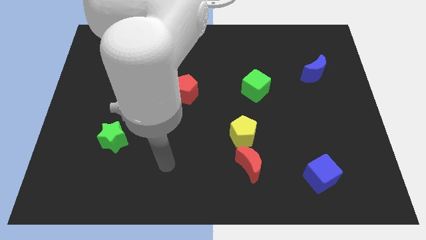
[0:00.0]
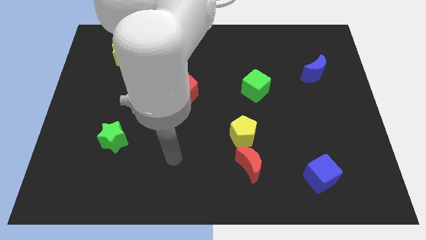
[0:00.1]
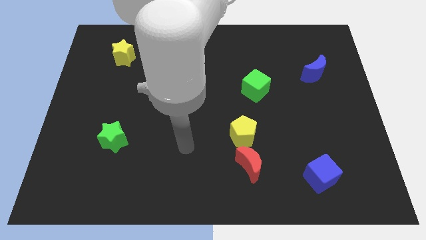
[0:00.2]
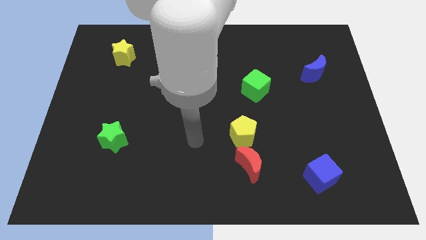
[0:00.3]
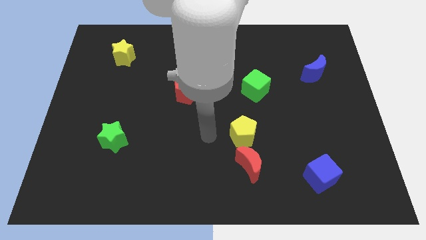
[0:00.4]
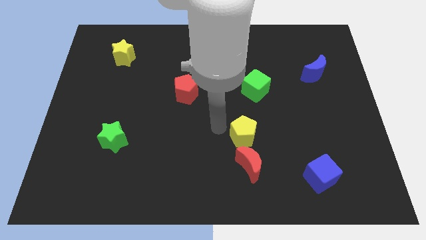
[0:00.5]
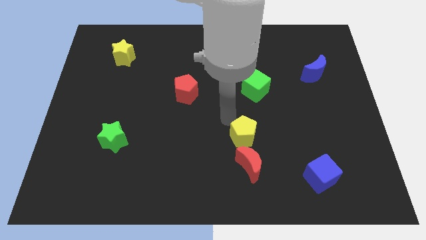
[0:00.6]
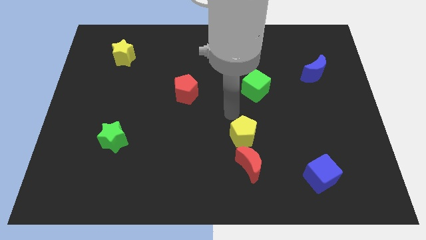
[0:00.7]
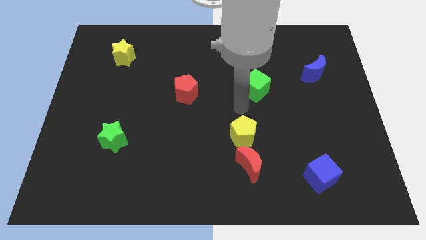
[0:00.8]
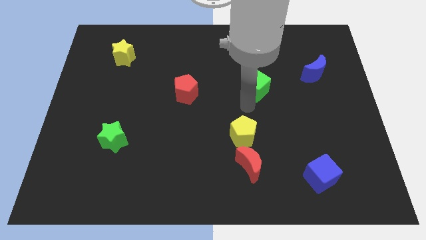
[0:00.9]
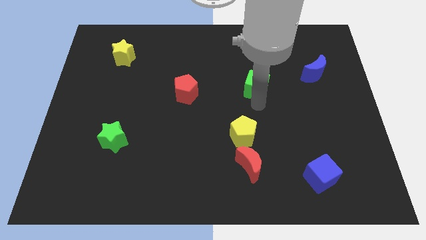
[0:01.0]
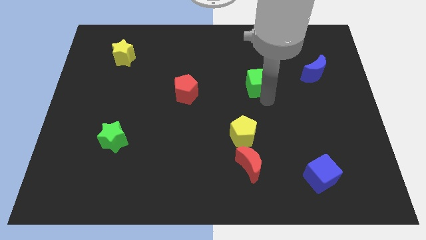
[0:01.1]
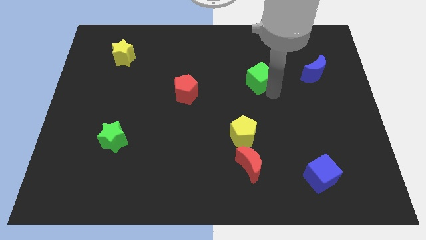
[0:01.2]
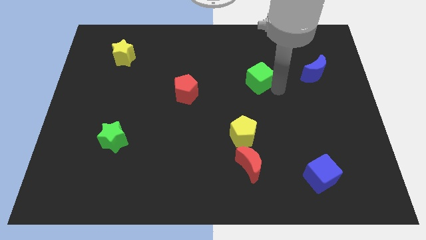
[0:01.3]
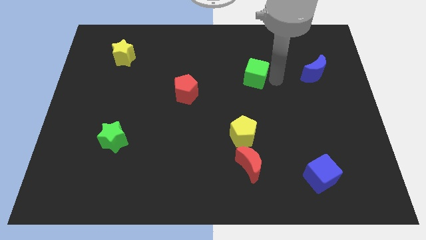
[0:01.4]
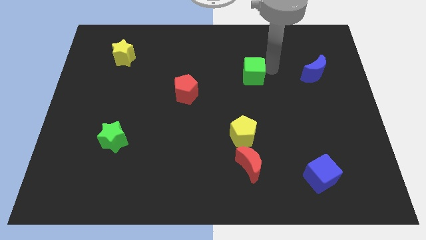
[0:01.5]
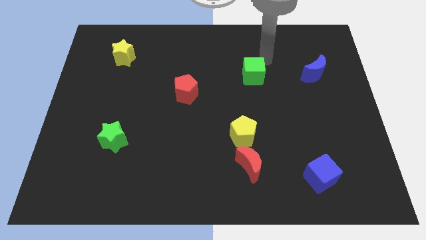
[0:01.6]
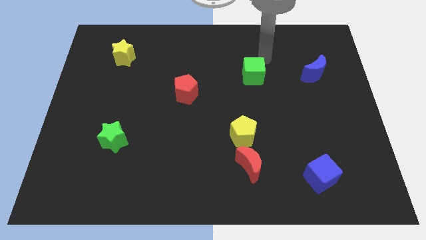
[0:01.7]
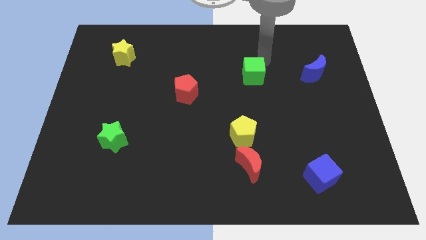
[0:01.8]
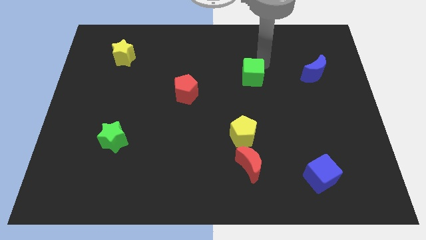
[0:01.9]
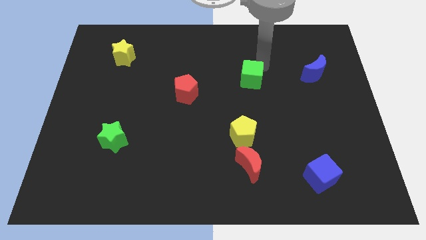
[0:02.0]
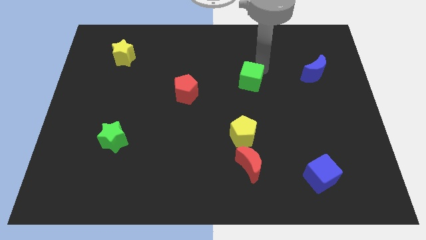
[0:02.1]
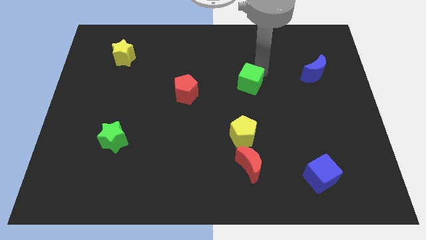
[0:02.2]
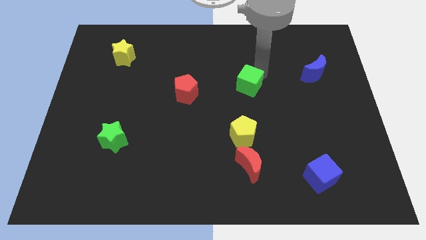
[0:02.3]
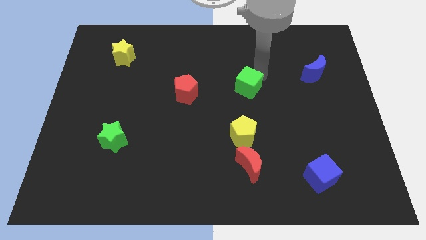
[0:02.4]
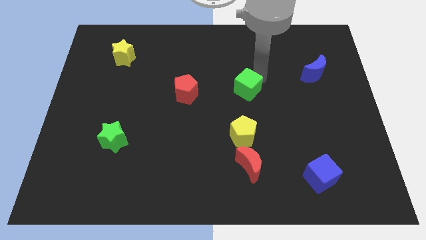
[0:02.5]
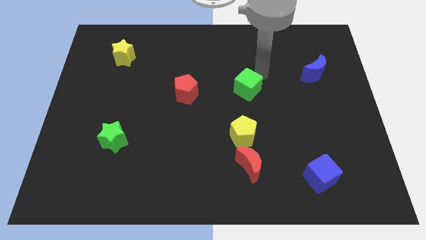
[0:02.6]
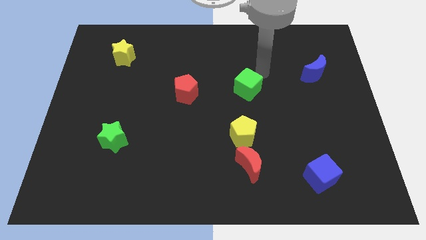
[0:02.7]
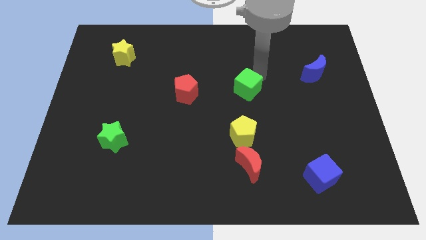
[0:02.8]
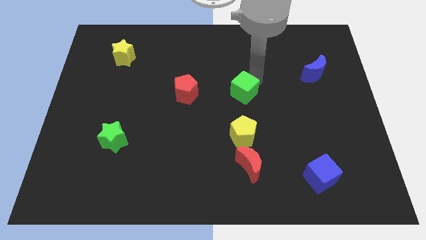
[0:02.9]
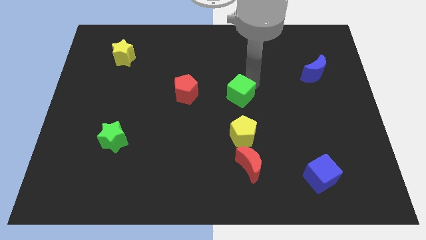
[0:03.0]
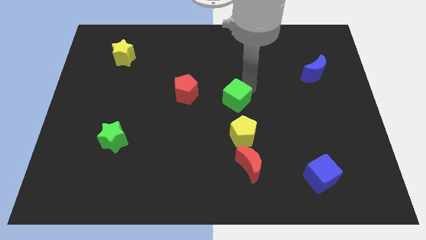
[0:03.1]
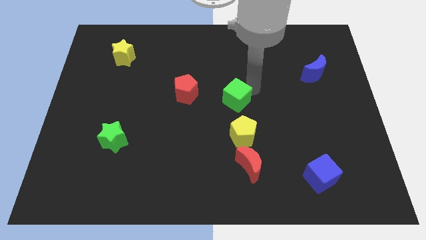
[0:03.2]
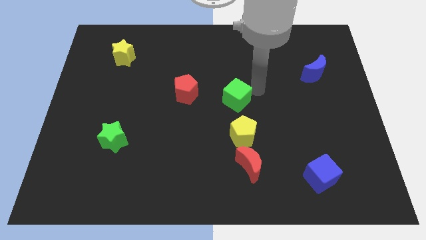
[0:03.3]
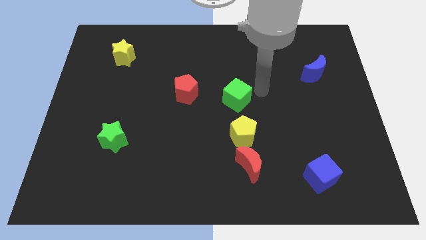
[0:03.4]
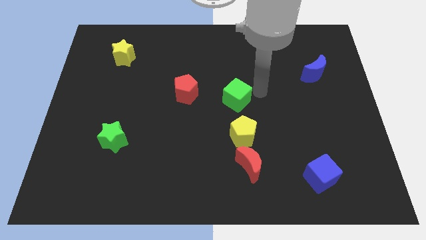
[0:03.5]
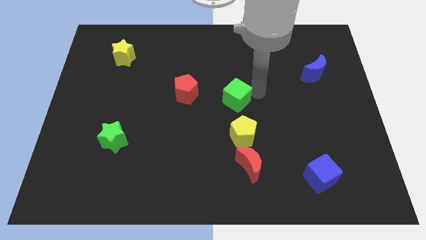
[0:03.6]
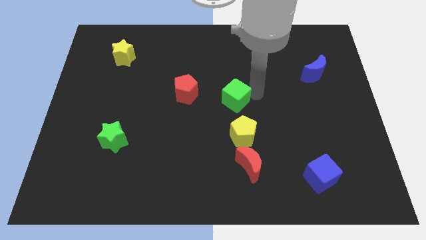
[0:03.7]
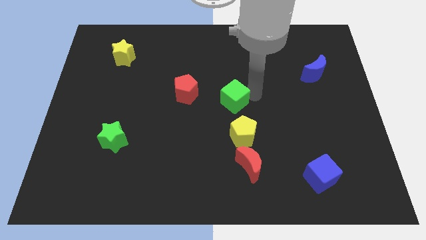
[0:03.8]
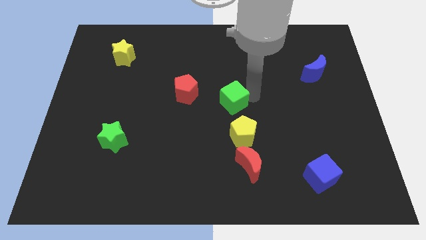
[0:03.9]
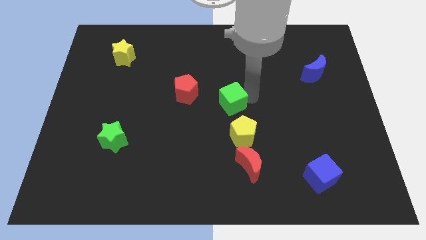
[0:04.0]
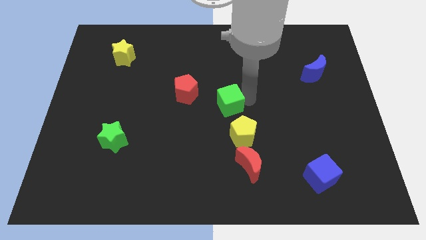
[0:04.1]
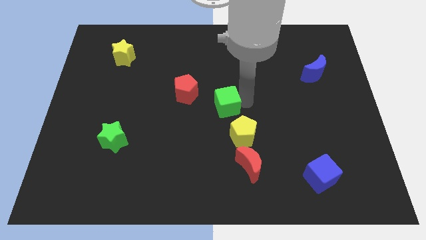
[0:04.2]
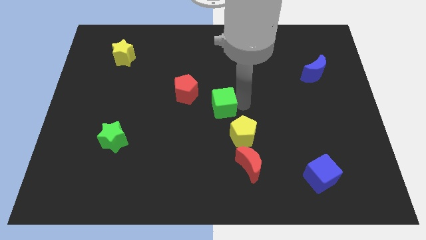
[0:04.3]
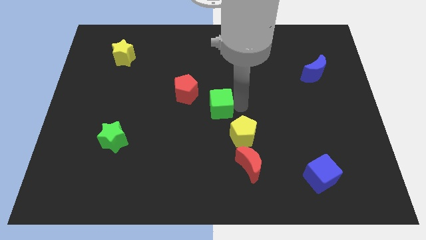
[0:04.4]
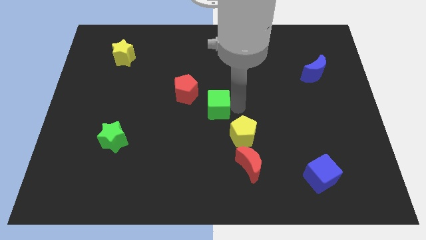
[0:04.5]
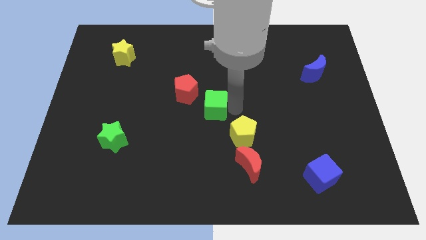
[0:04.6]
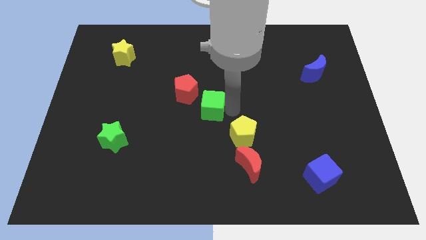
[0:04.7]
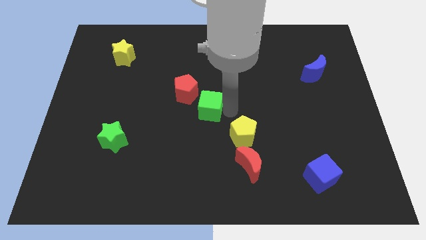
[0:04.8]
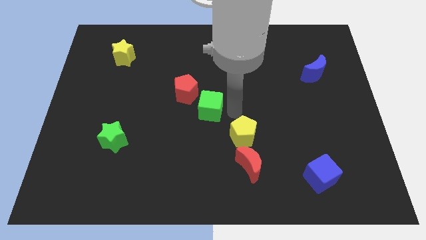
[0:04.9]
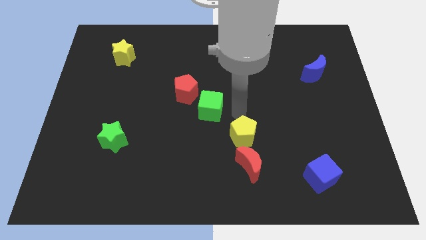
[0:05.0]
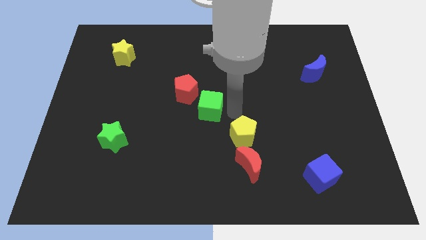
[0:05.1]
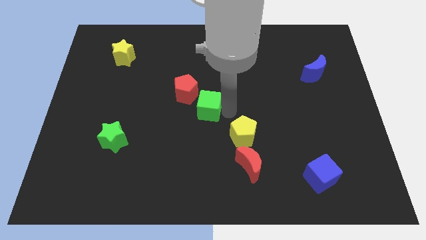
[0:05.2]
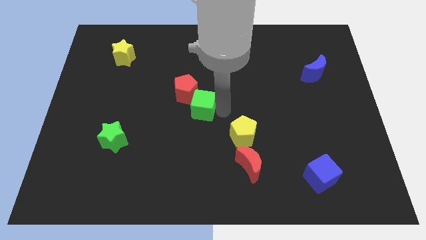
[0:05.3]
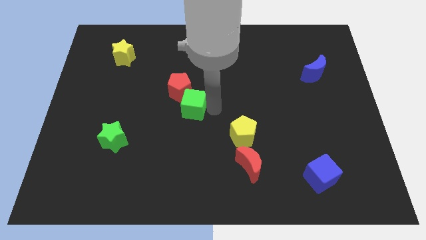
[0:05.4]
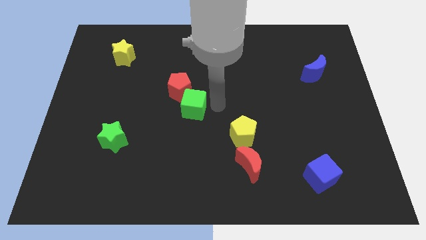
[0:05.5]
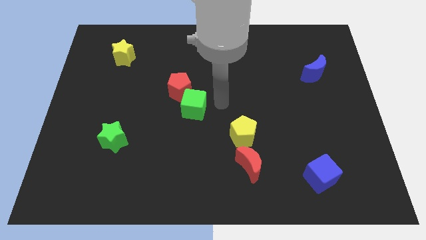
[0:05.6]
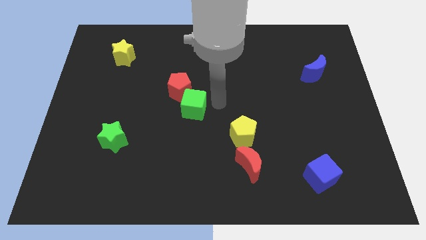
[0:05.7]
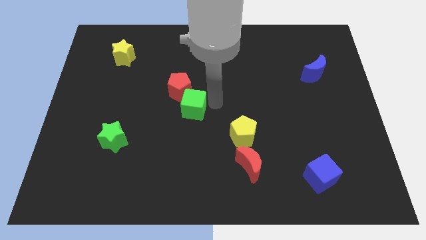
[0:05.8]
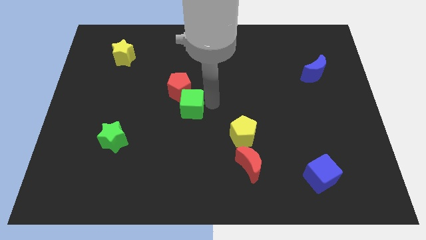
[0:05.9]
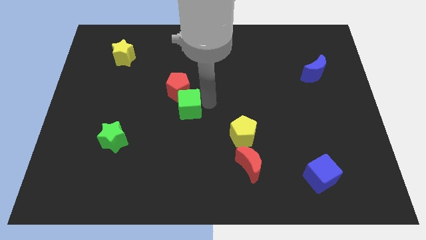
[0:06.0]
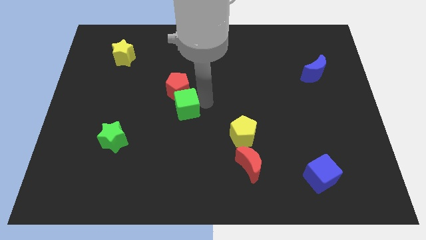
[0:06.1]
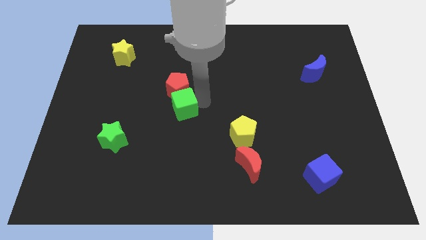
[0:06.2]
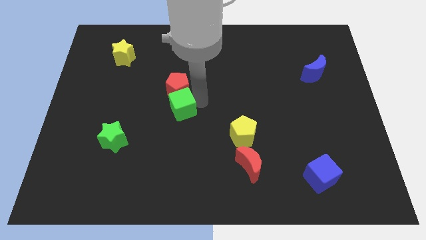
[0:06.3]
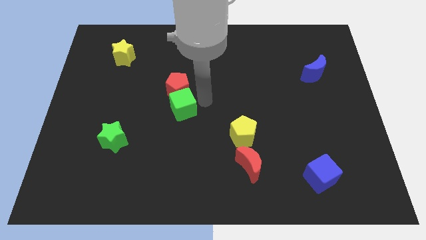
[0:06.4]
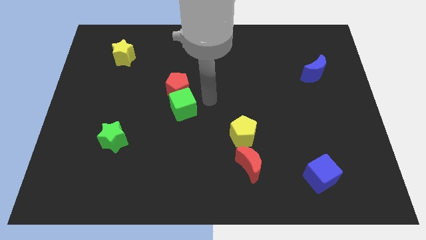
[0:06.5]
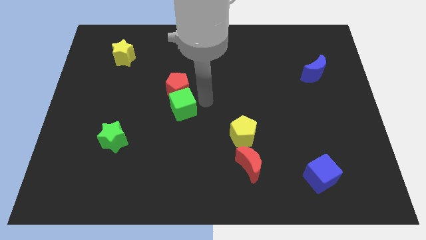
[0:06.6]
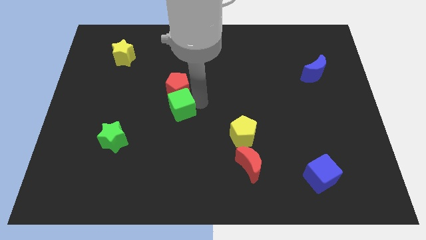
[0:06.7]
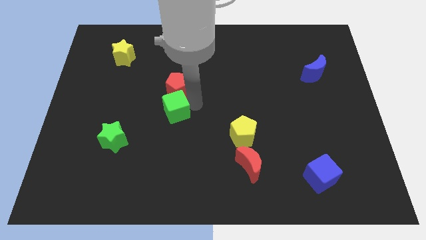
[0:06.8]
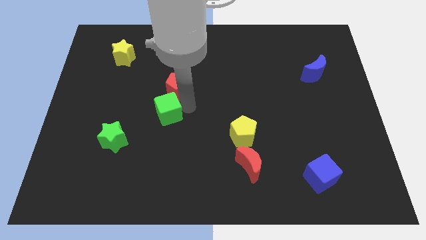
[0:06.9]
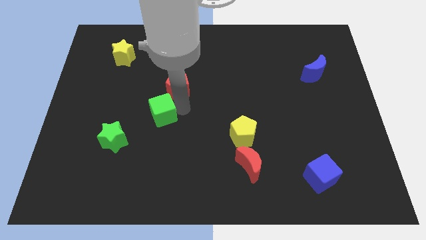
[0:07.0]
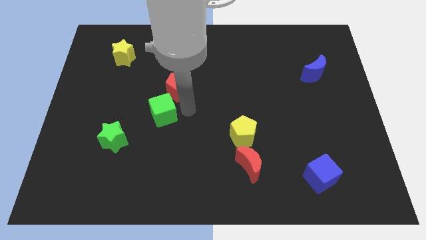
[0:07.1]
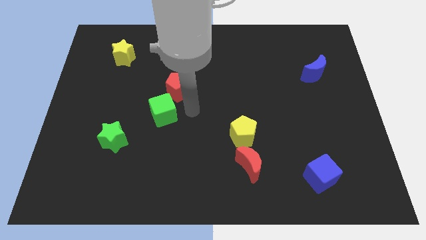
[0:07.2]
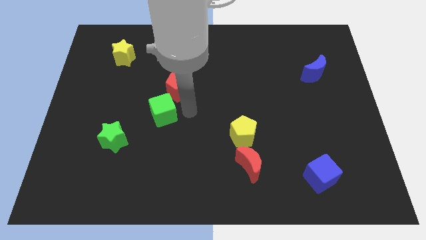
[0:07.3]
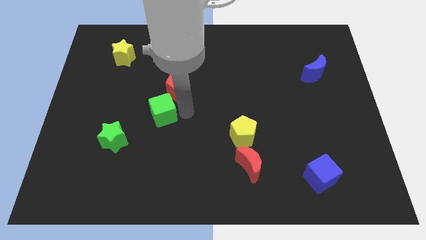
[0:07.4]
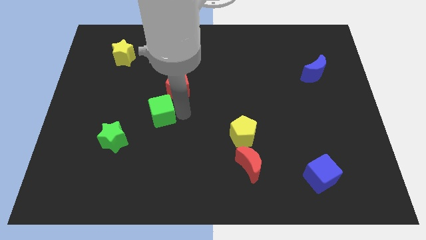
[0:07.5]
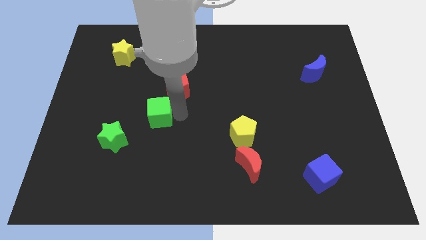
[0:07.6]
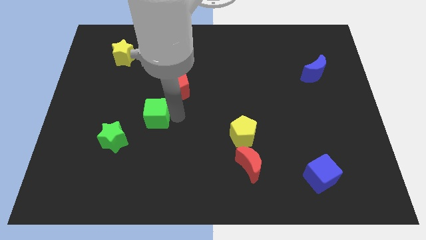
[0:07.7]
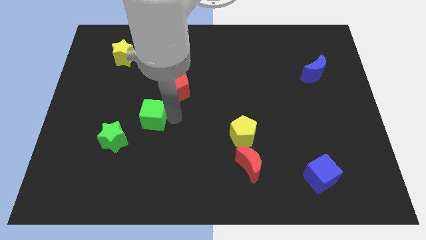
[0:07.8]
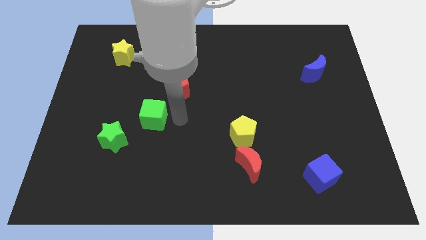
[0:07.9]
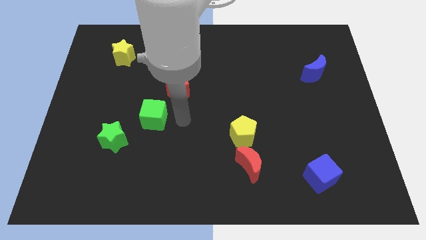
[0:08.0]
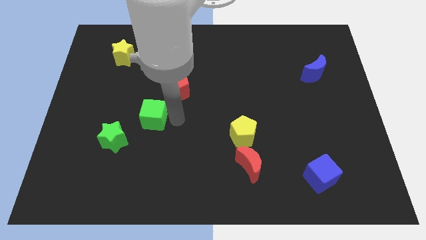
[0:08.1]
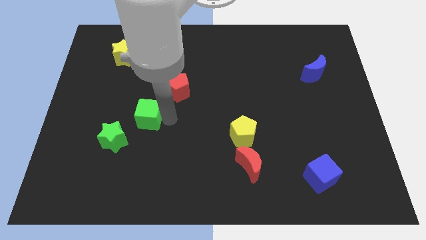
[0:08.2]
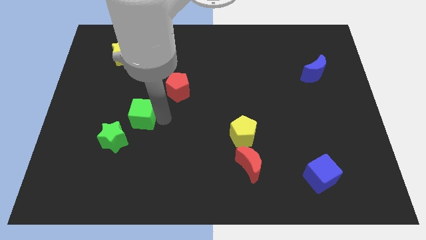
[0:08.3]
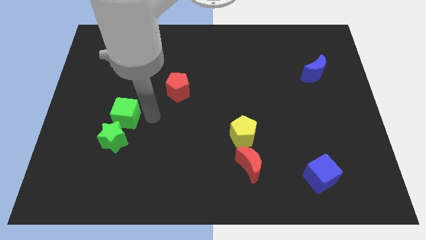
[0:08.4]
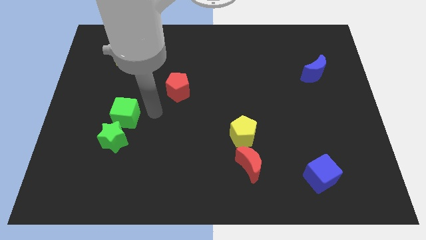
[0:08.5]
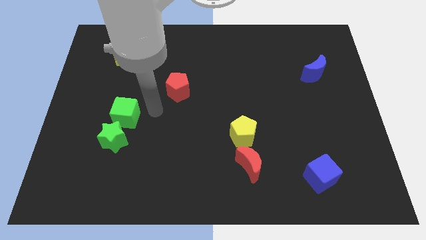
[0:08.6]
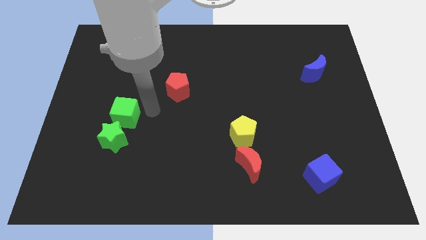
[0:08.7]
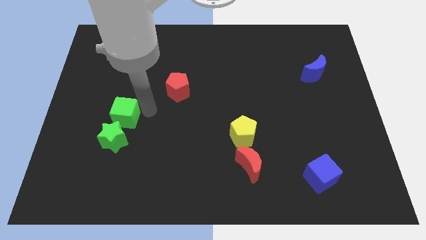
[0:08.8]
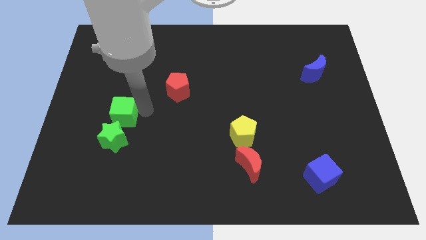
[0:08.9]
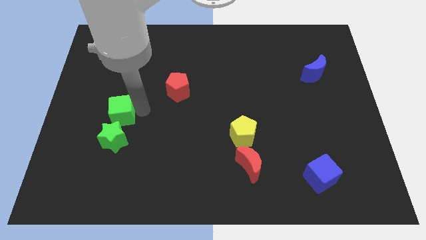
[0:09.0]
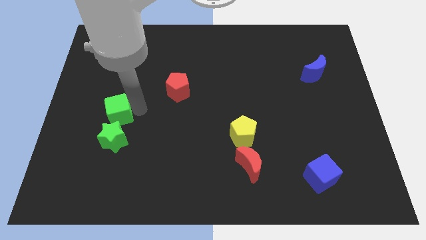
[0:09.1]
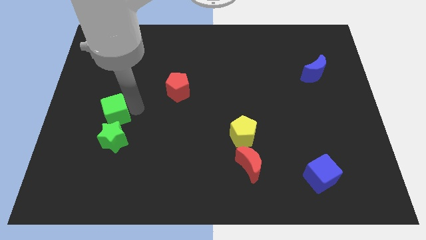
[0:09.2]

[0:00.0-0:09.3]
push the green cube to the top left of the green star
